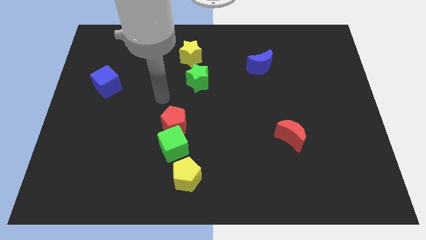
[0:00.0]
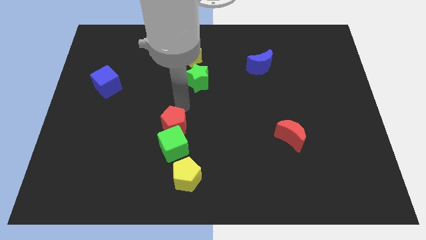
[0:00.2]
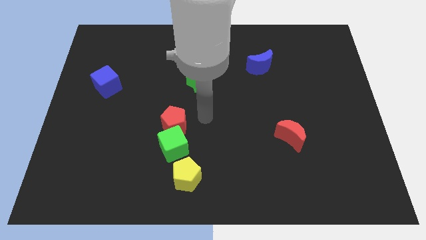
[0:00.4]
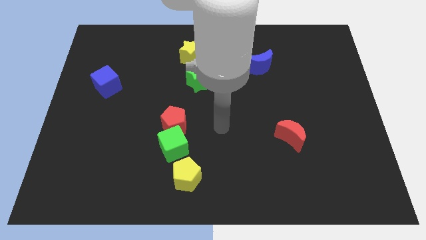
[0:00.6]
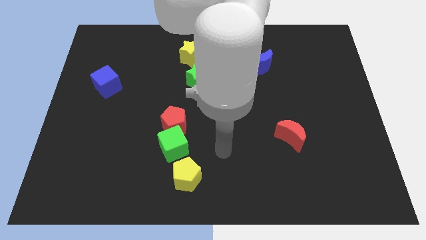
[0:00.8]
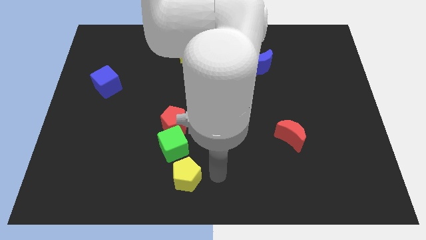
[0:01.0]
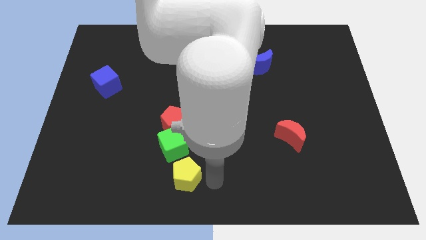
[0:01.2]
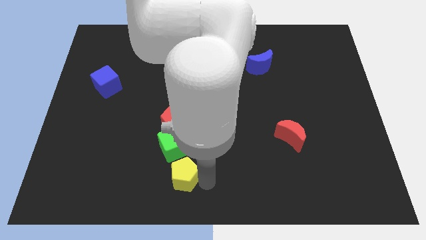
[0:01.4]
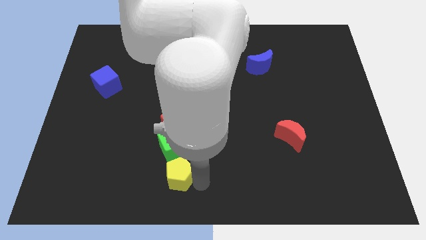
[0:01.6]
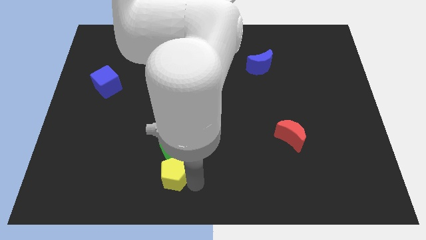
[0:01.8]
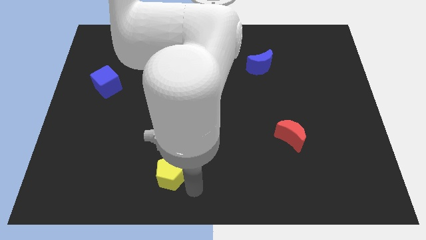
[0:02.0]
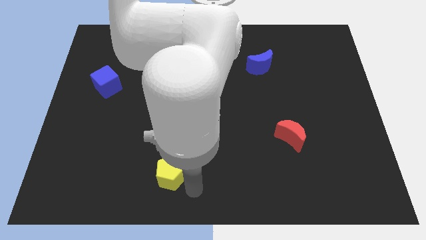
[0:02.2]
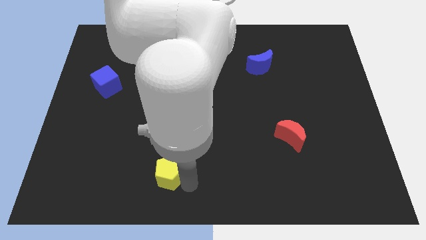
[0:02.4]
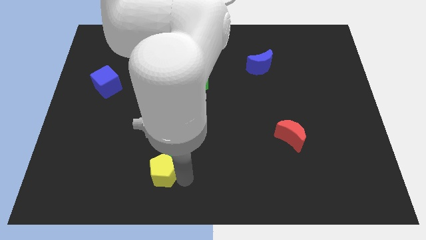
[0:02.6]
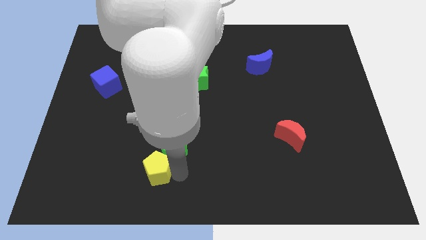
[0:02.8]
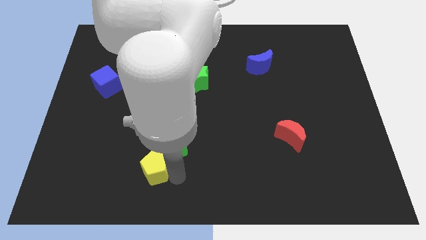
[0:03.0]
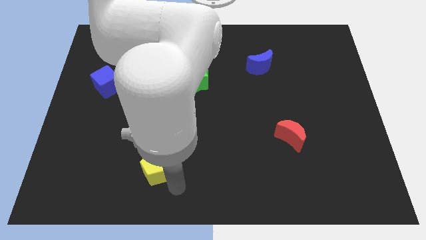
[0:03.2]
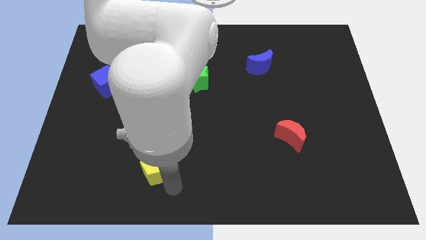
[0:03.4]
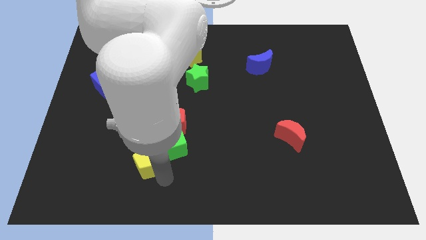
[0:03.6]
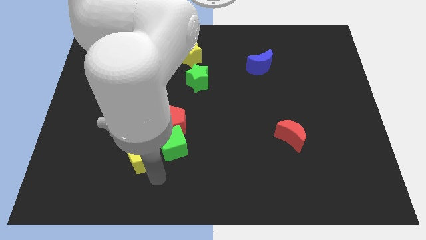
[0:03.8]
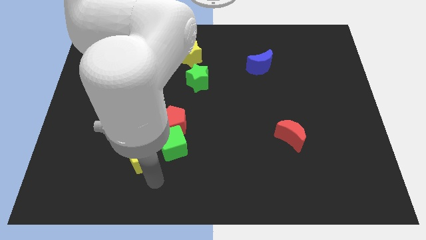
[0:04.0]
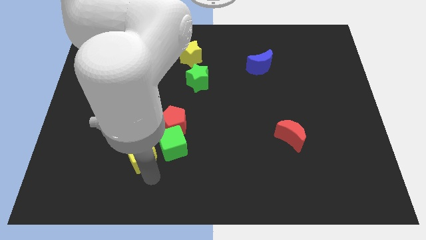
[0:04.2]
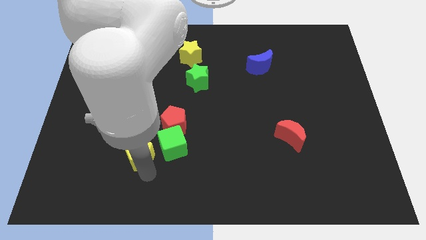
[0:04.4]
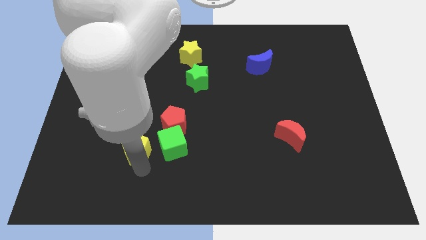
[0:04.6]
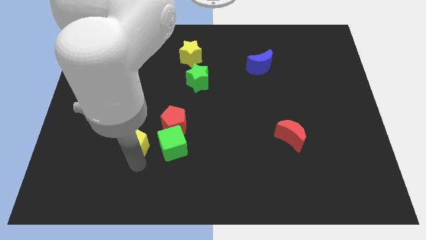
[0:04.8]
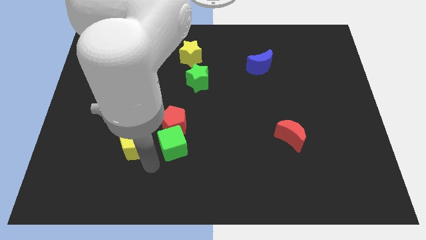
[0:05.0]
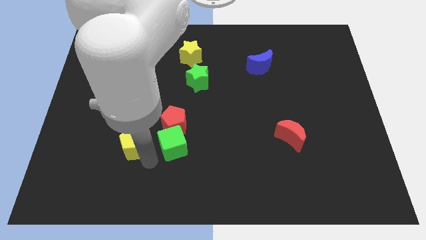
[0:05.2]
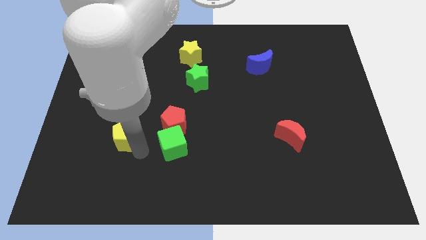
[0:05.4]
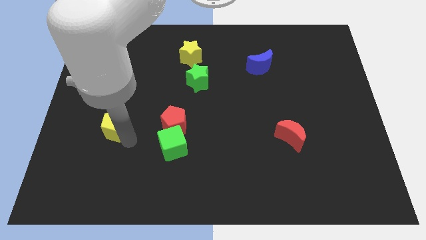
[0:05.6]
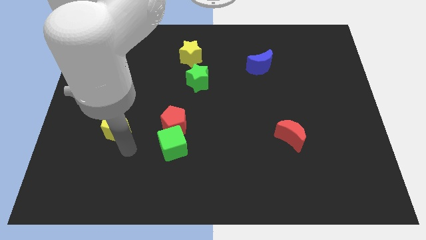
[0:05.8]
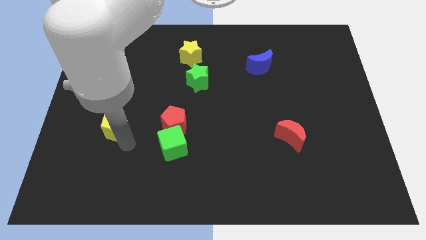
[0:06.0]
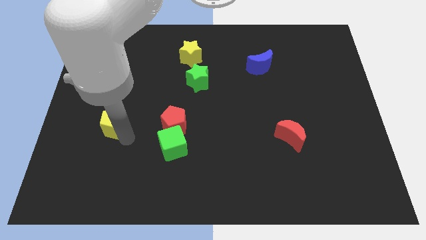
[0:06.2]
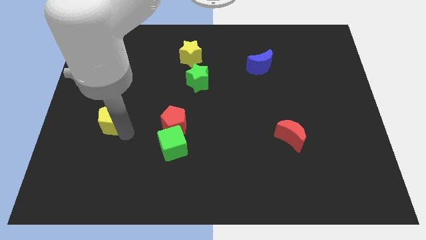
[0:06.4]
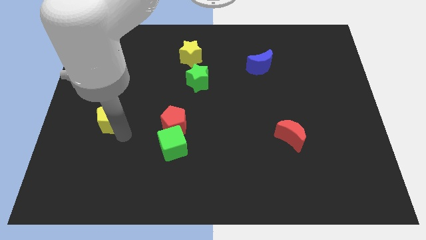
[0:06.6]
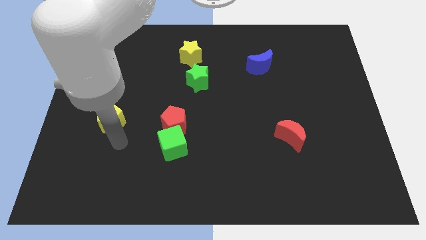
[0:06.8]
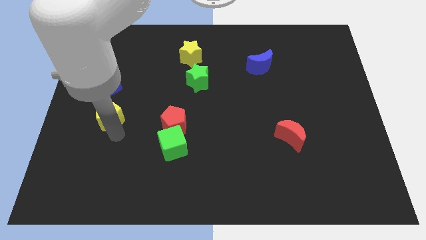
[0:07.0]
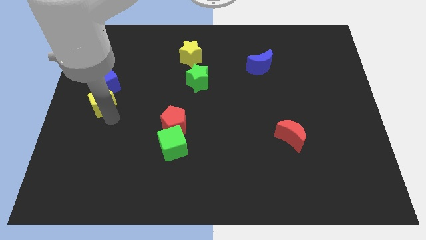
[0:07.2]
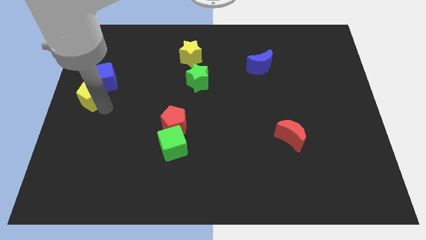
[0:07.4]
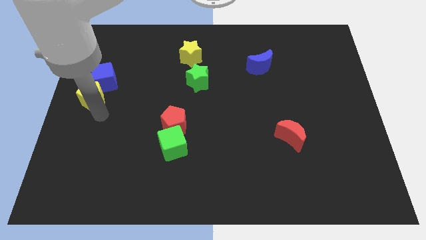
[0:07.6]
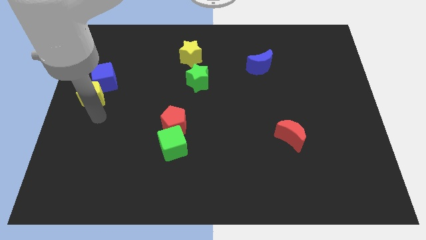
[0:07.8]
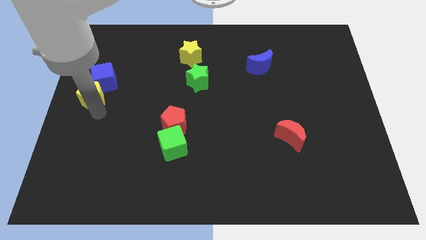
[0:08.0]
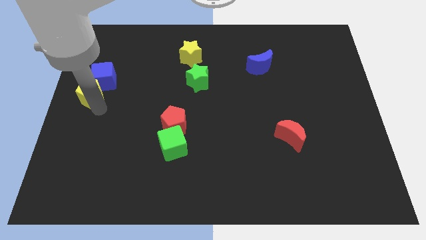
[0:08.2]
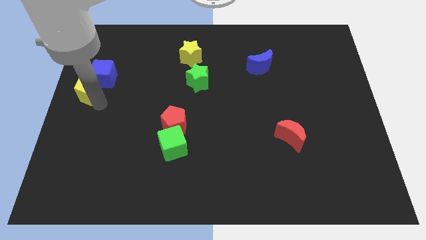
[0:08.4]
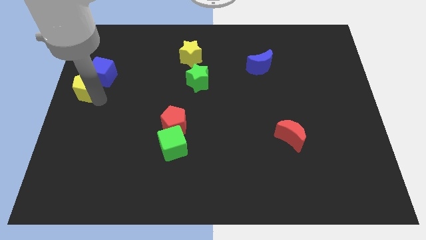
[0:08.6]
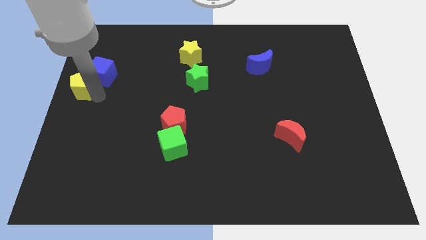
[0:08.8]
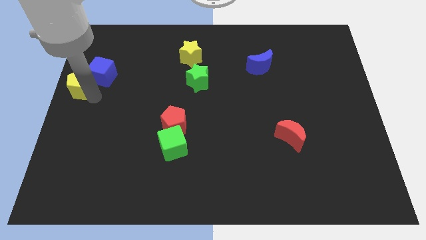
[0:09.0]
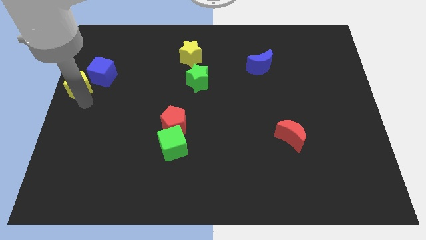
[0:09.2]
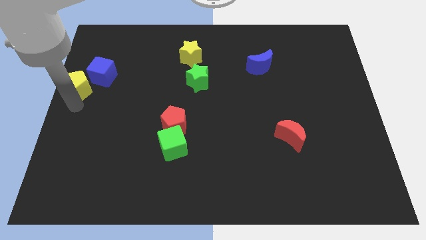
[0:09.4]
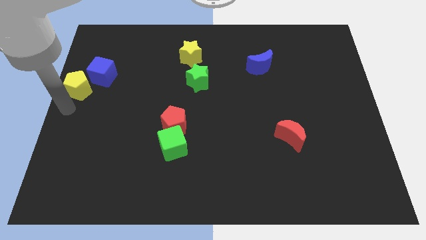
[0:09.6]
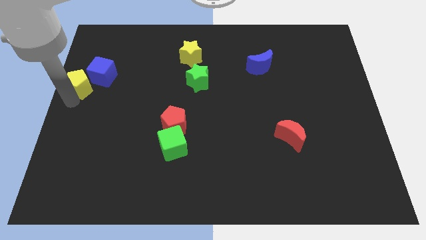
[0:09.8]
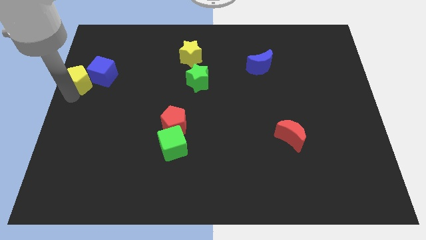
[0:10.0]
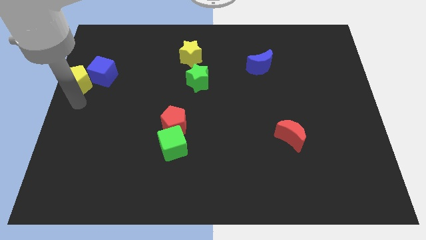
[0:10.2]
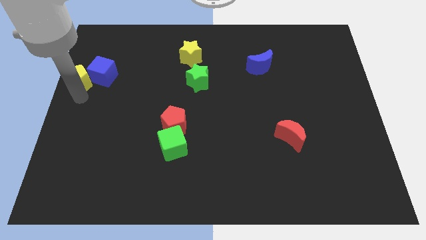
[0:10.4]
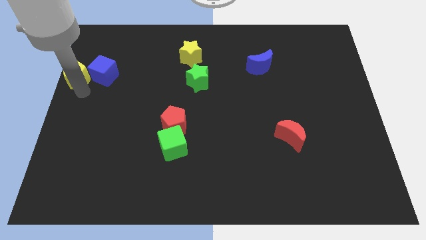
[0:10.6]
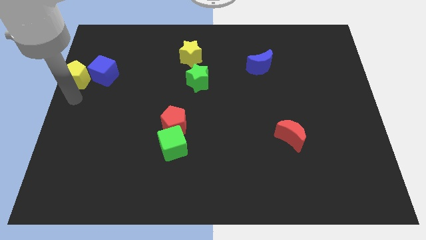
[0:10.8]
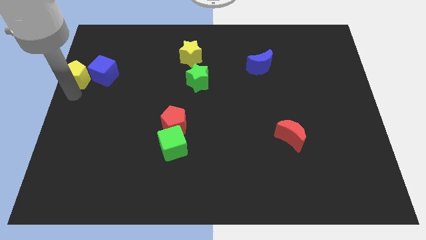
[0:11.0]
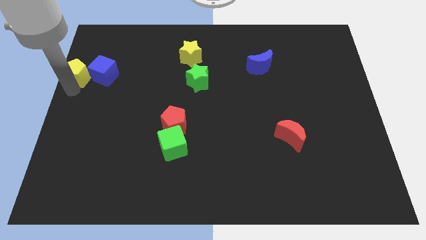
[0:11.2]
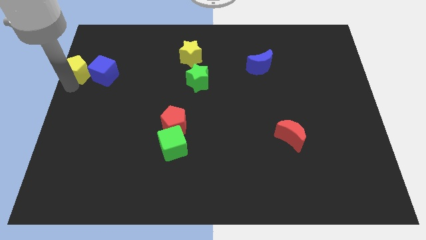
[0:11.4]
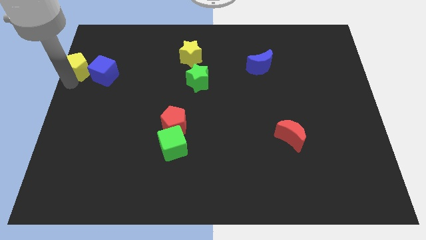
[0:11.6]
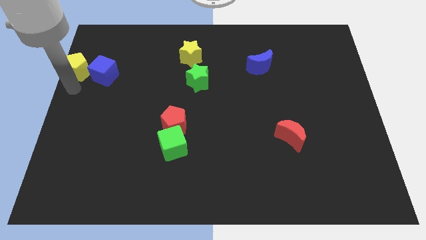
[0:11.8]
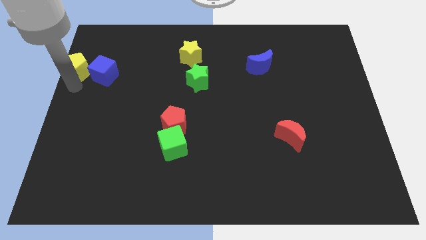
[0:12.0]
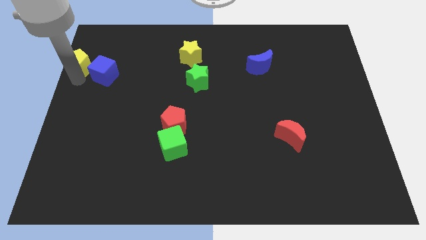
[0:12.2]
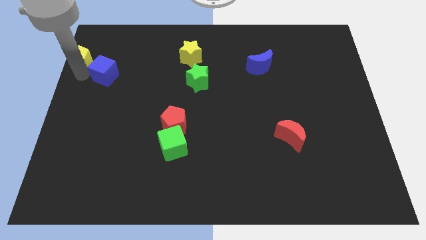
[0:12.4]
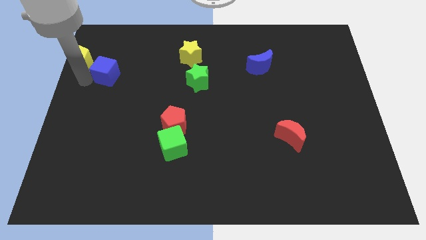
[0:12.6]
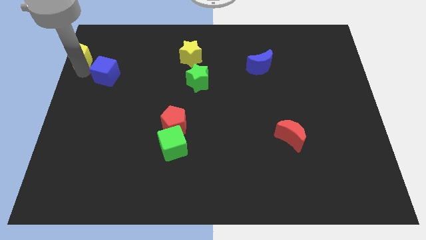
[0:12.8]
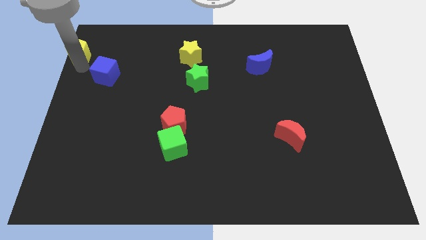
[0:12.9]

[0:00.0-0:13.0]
put the yellow pentagon to the upper left corner

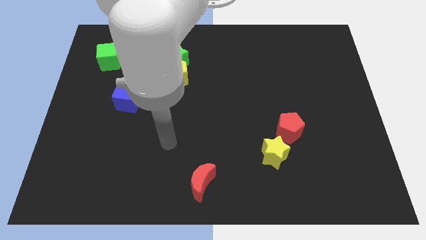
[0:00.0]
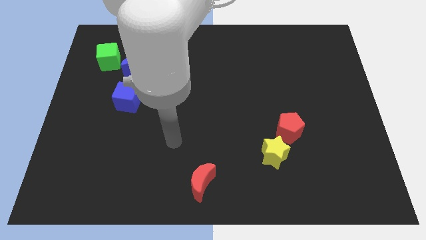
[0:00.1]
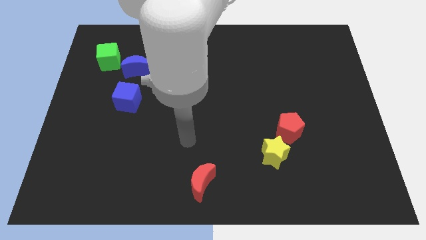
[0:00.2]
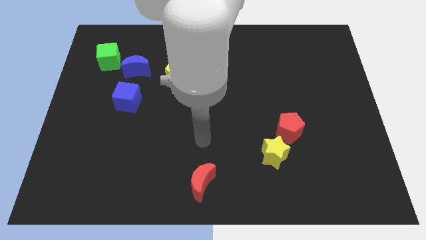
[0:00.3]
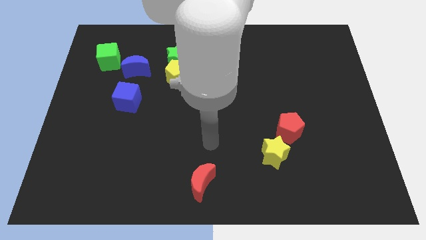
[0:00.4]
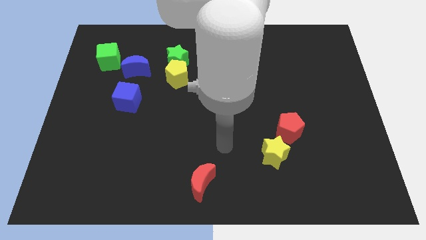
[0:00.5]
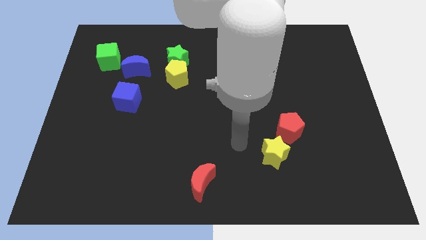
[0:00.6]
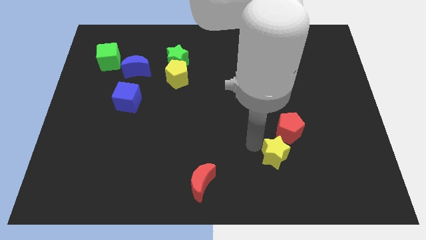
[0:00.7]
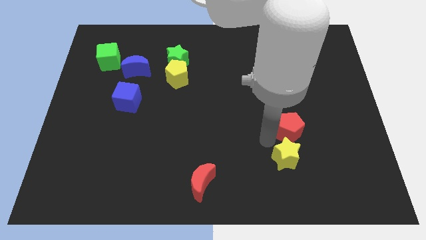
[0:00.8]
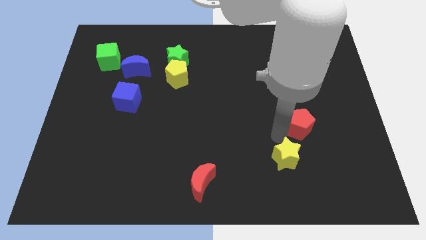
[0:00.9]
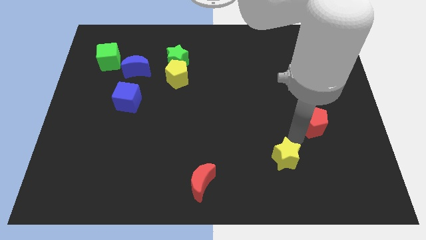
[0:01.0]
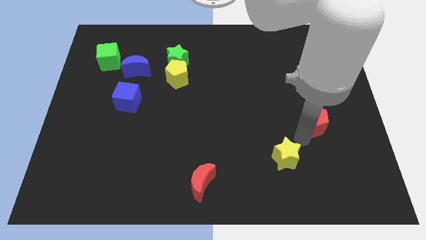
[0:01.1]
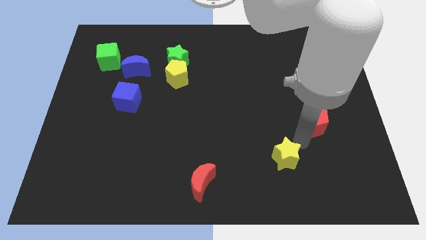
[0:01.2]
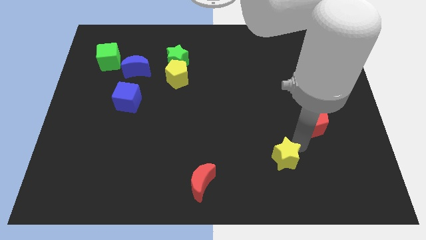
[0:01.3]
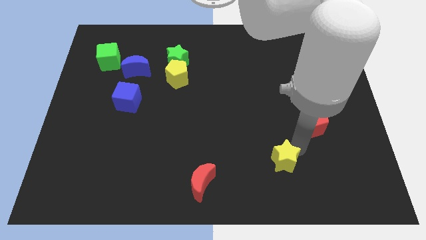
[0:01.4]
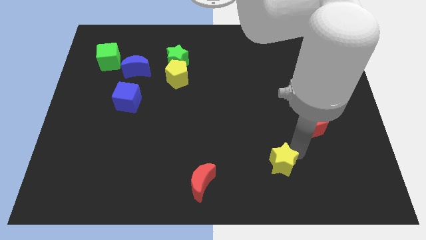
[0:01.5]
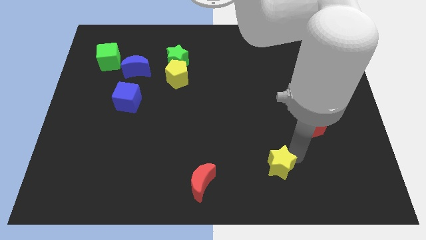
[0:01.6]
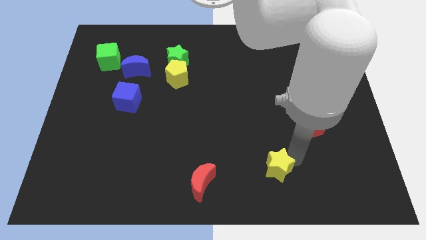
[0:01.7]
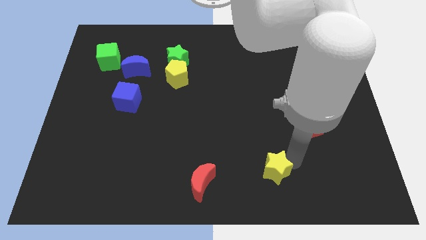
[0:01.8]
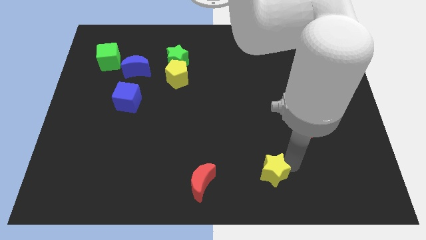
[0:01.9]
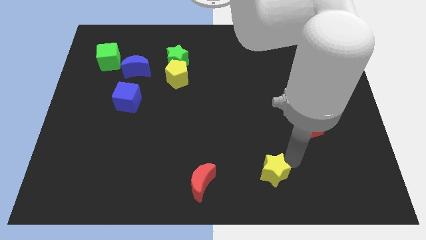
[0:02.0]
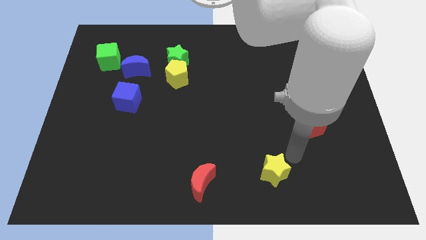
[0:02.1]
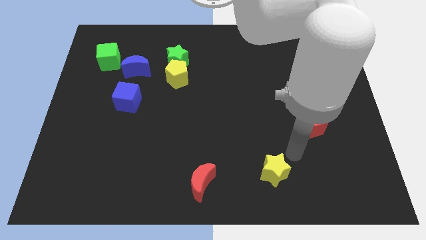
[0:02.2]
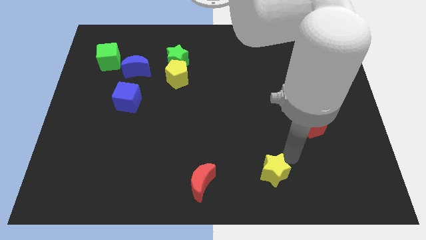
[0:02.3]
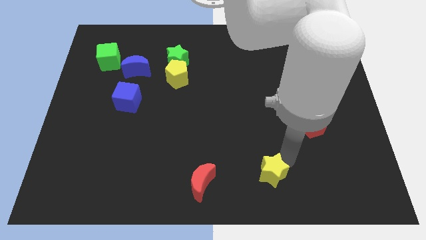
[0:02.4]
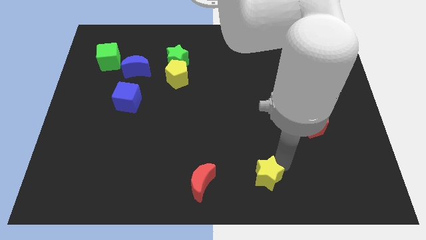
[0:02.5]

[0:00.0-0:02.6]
put the yellow star to the bottom side
